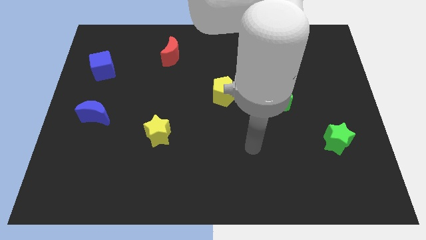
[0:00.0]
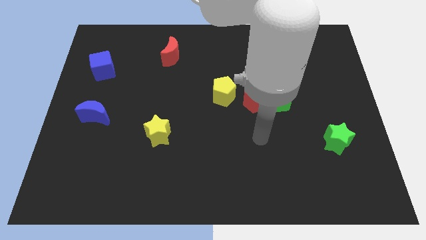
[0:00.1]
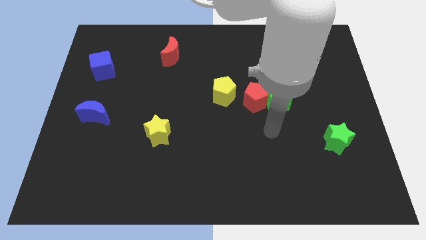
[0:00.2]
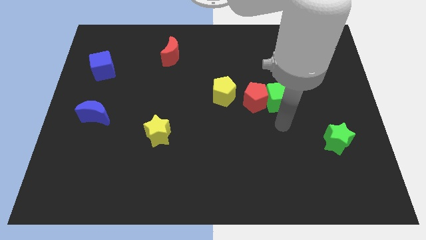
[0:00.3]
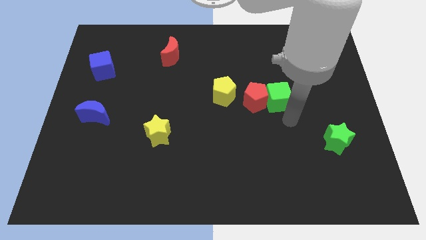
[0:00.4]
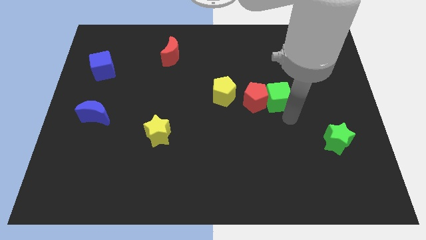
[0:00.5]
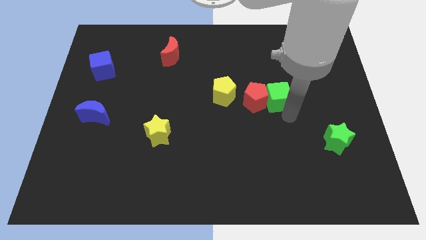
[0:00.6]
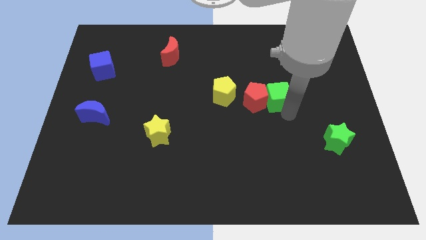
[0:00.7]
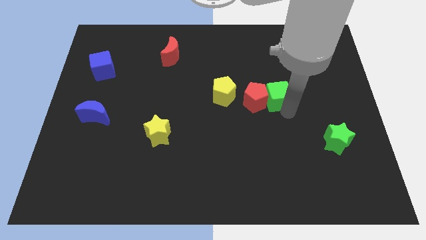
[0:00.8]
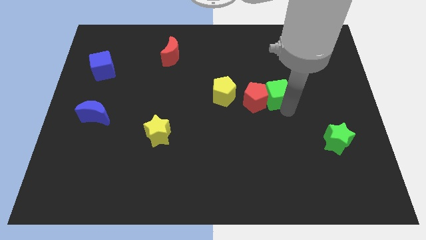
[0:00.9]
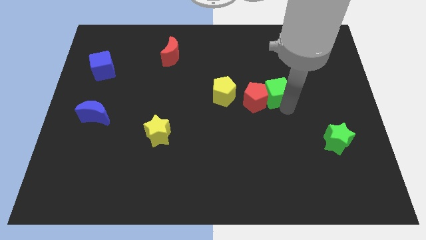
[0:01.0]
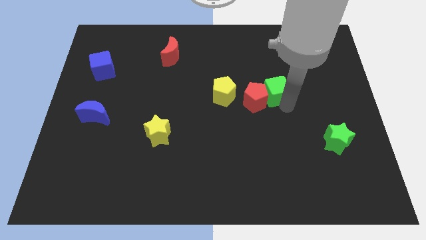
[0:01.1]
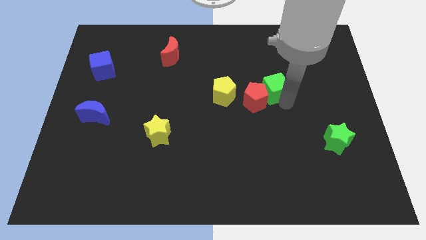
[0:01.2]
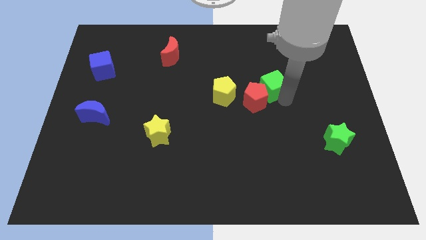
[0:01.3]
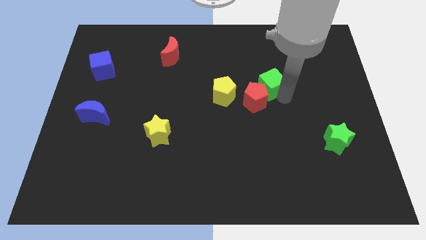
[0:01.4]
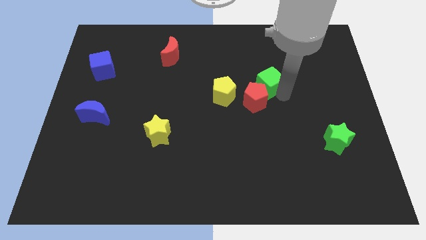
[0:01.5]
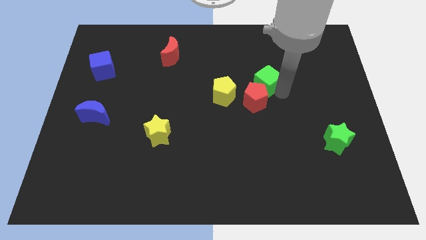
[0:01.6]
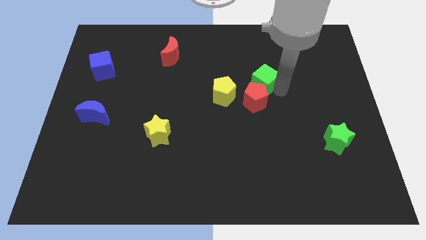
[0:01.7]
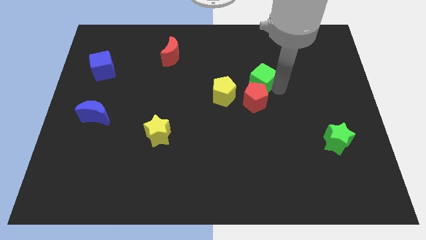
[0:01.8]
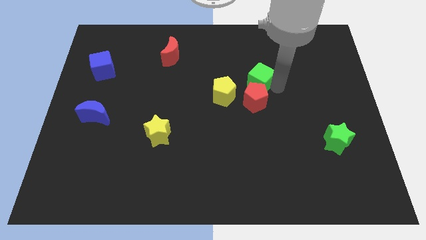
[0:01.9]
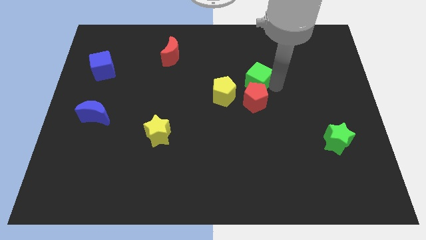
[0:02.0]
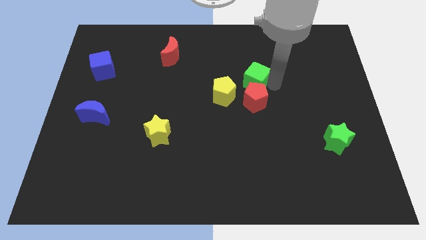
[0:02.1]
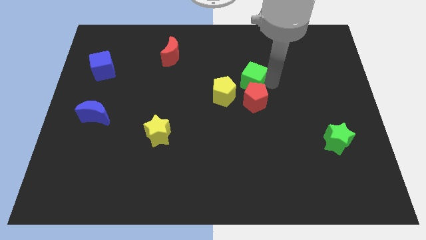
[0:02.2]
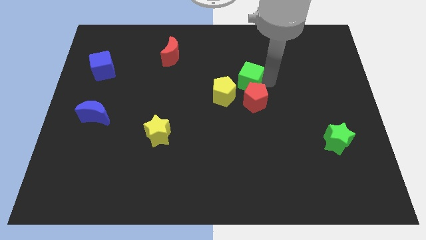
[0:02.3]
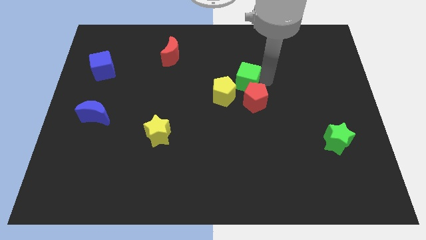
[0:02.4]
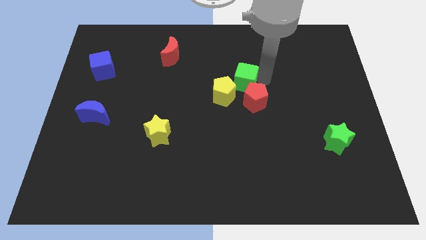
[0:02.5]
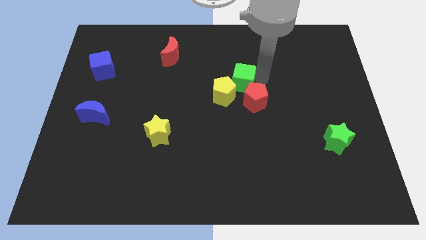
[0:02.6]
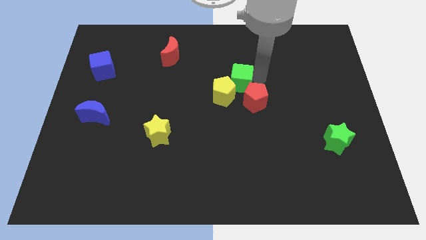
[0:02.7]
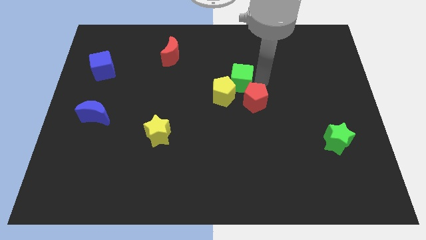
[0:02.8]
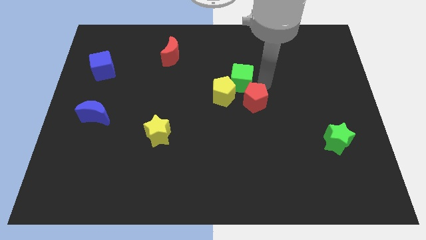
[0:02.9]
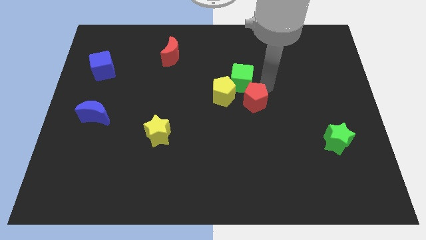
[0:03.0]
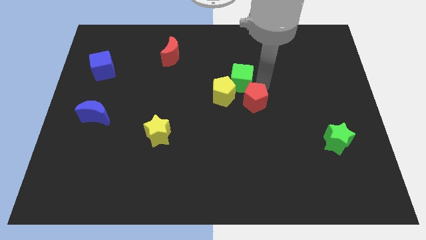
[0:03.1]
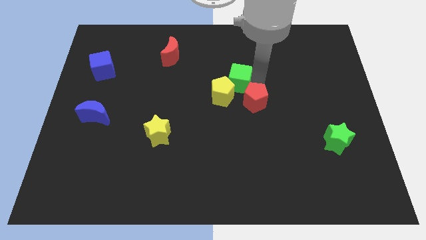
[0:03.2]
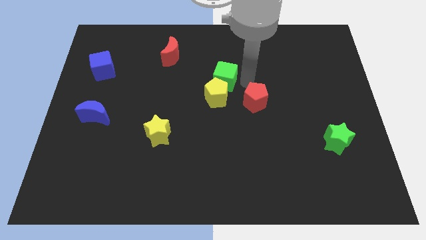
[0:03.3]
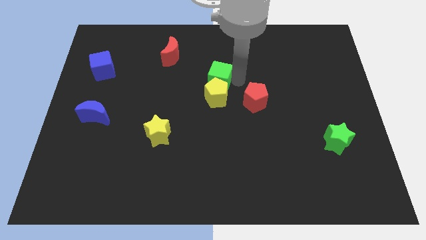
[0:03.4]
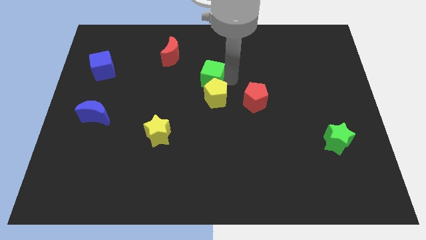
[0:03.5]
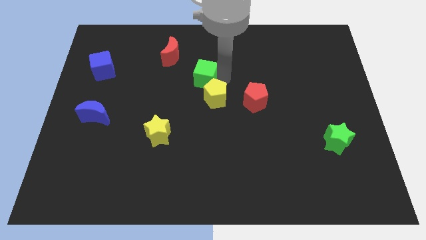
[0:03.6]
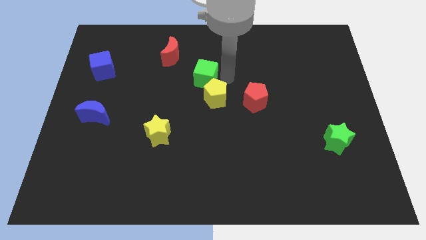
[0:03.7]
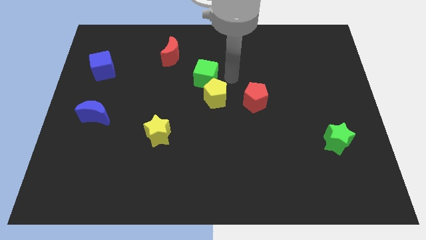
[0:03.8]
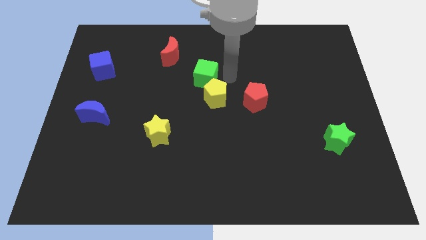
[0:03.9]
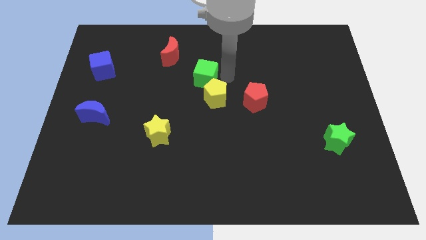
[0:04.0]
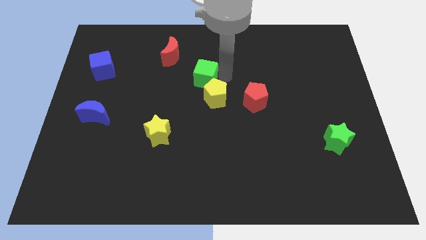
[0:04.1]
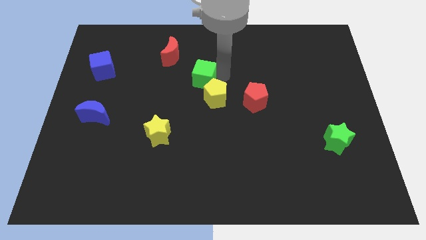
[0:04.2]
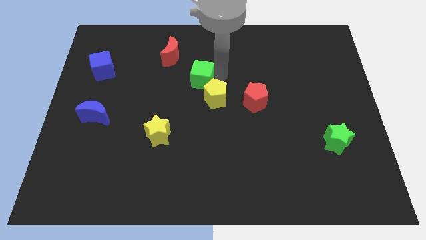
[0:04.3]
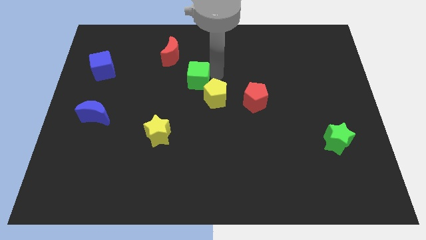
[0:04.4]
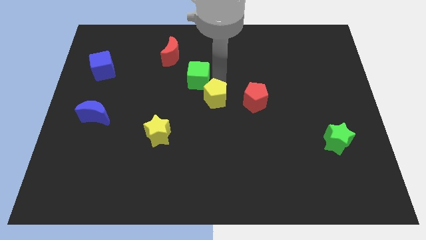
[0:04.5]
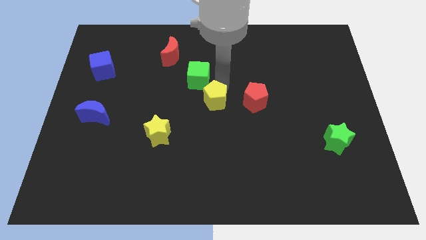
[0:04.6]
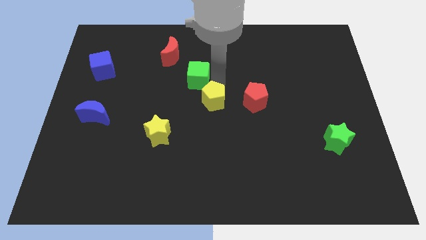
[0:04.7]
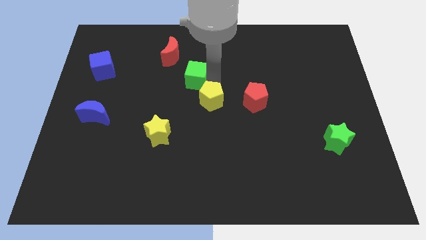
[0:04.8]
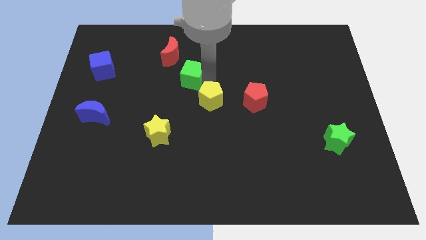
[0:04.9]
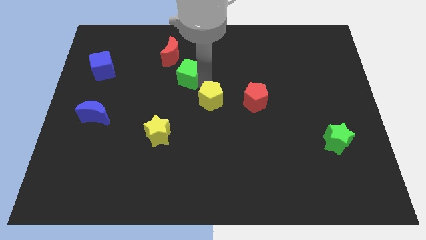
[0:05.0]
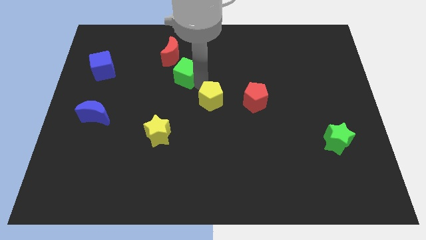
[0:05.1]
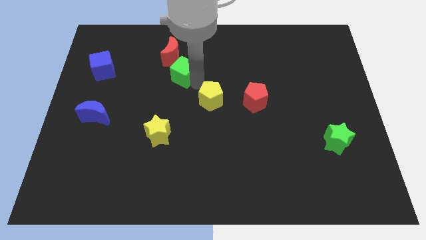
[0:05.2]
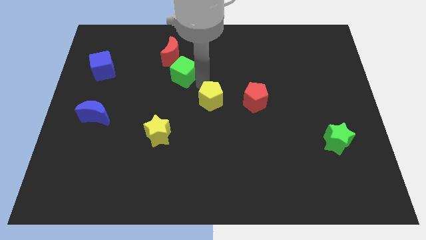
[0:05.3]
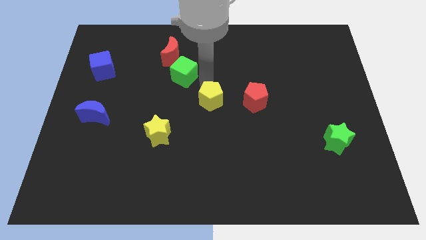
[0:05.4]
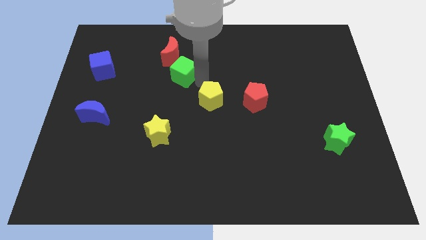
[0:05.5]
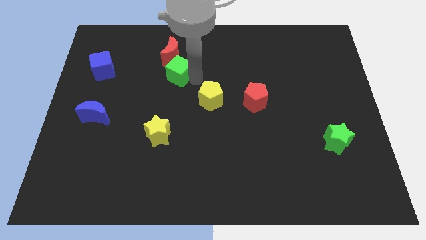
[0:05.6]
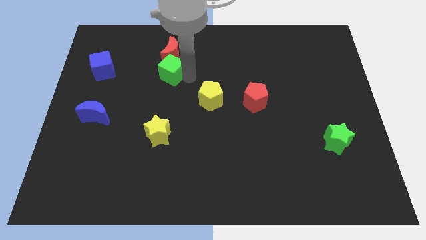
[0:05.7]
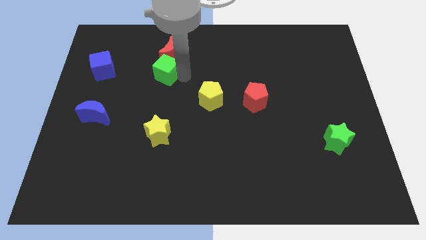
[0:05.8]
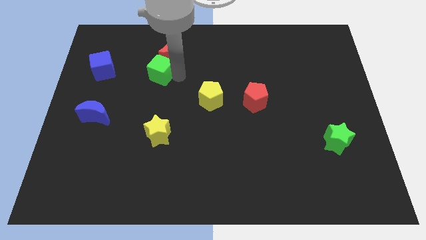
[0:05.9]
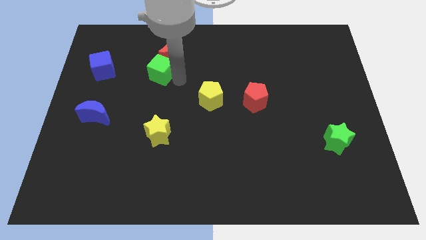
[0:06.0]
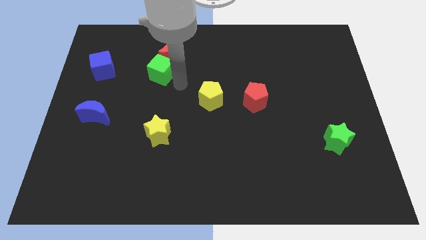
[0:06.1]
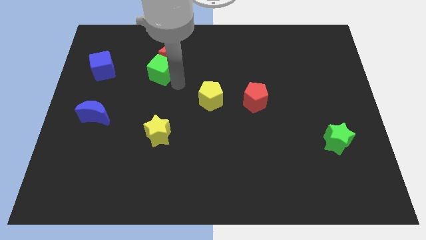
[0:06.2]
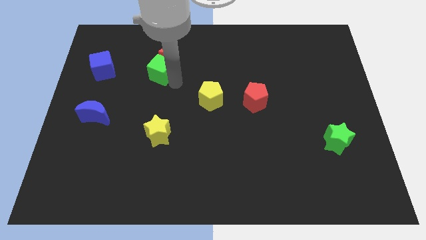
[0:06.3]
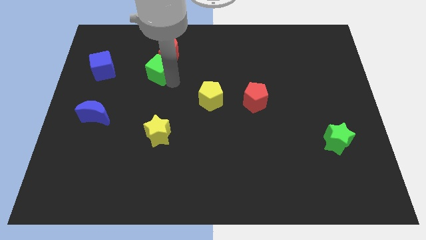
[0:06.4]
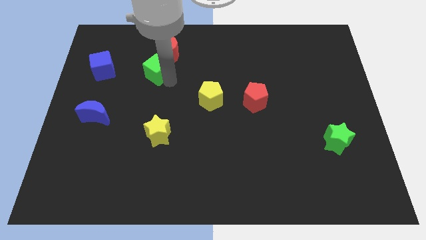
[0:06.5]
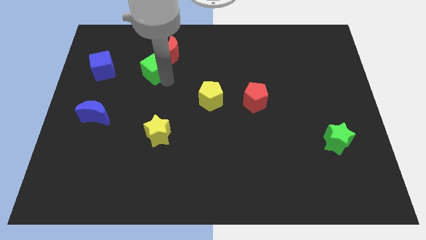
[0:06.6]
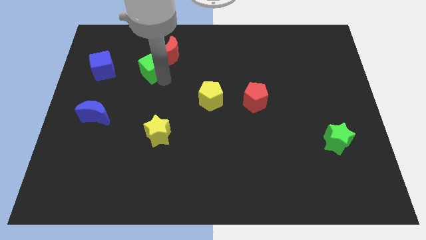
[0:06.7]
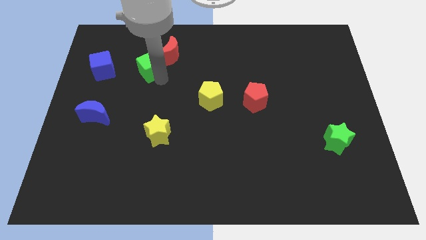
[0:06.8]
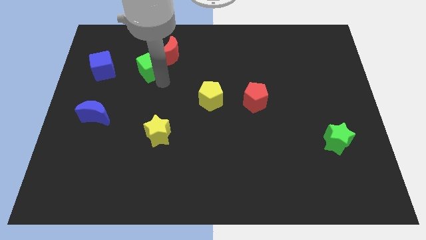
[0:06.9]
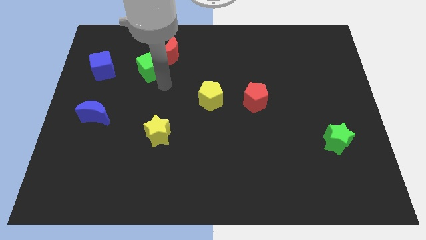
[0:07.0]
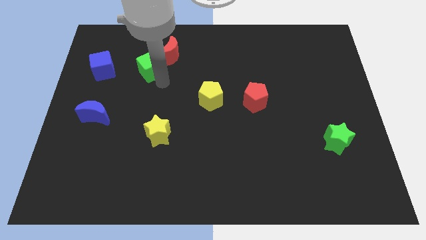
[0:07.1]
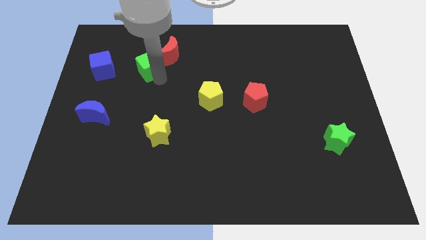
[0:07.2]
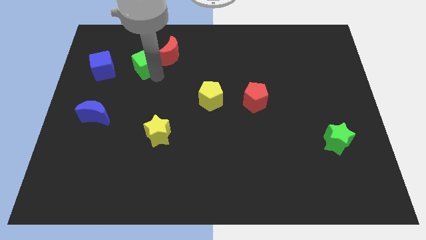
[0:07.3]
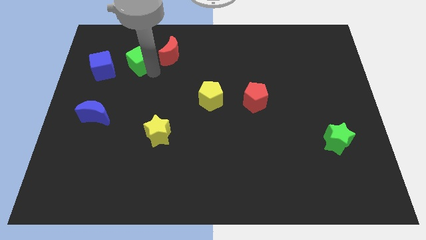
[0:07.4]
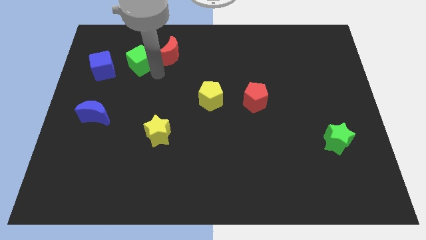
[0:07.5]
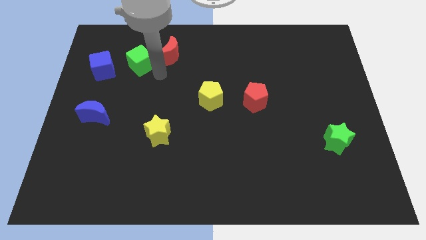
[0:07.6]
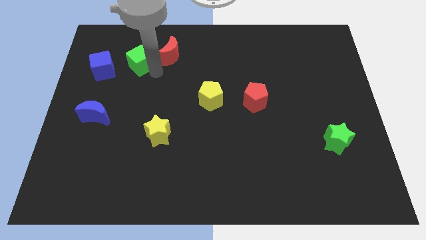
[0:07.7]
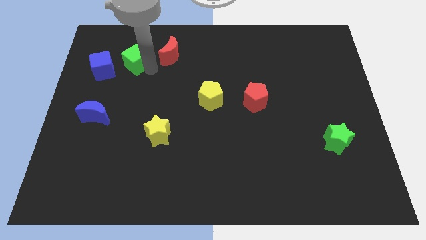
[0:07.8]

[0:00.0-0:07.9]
move the green cube to the top right of the blue cube
